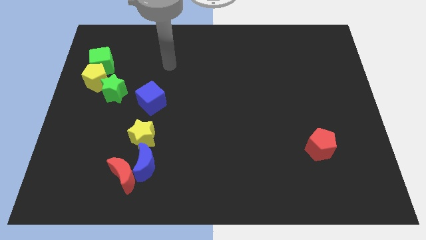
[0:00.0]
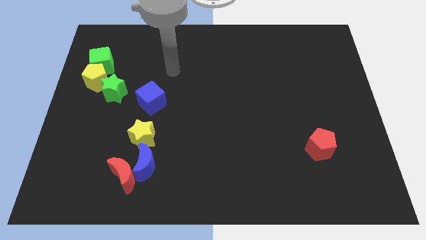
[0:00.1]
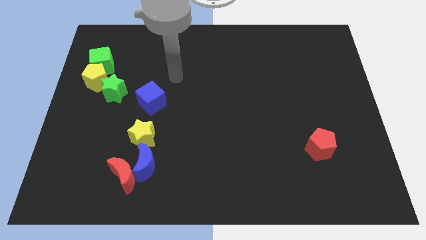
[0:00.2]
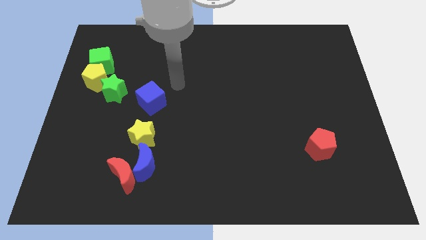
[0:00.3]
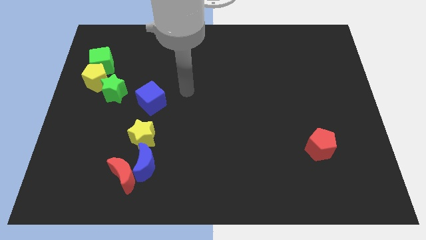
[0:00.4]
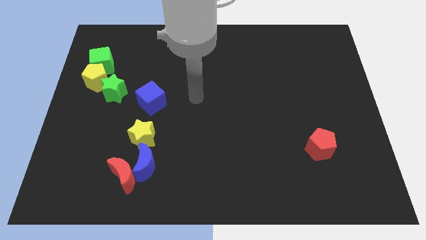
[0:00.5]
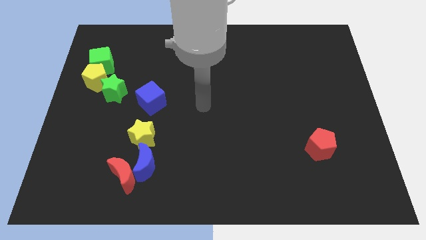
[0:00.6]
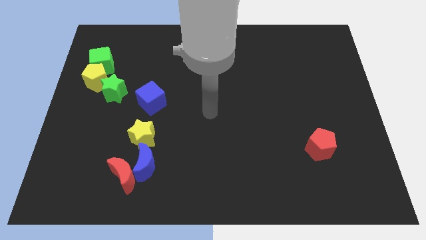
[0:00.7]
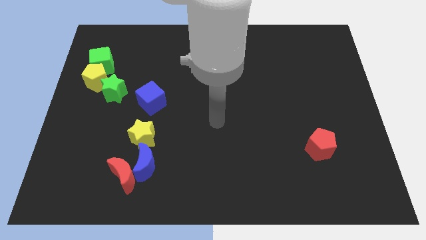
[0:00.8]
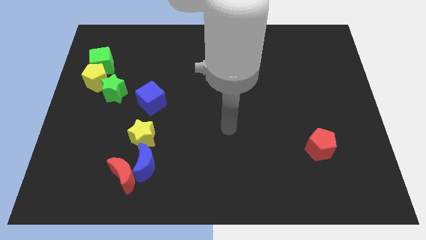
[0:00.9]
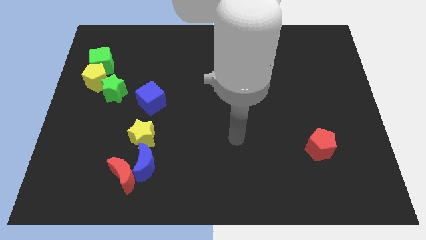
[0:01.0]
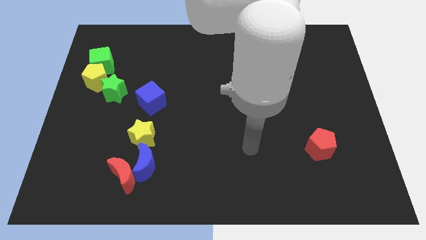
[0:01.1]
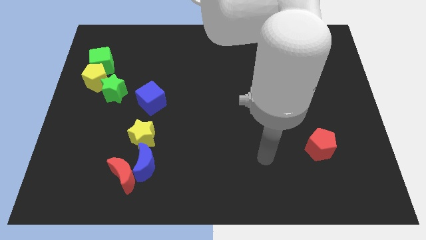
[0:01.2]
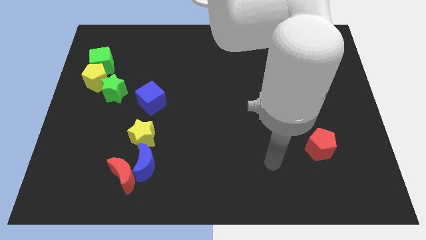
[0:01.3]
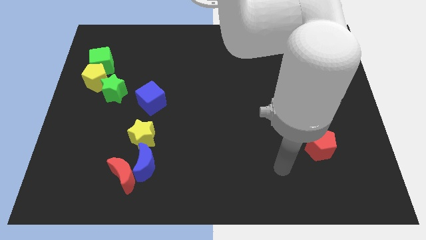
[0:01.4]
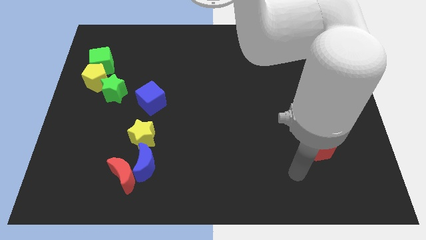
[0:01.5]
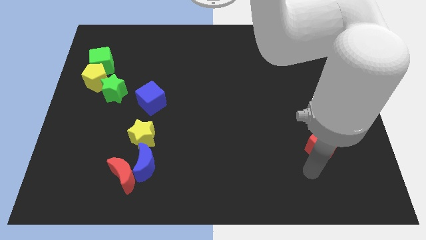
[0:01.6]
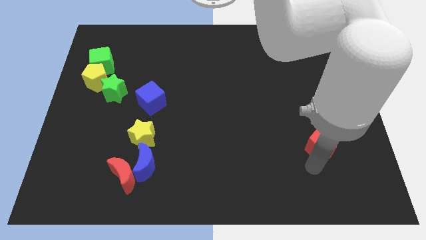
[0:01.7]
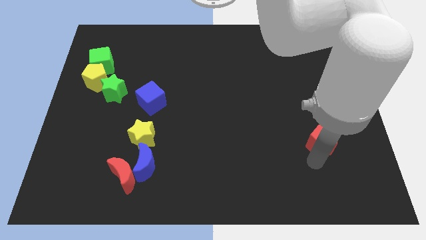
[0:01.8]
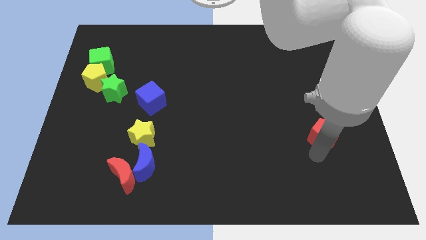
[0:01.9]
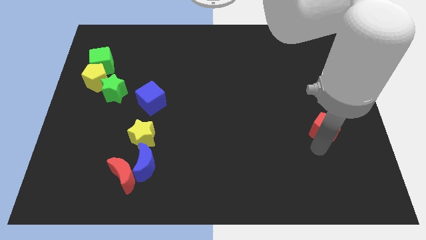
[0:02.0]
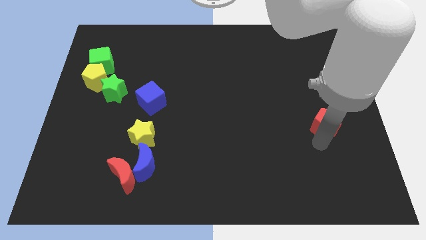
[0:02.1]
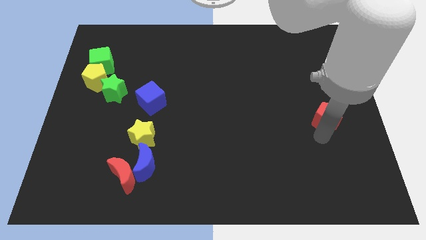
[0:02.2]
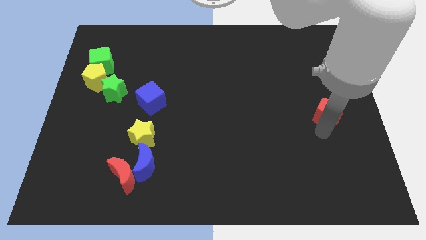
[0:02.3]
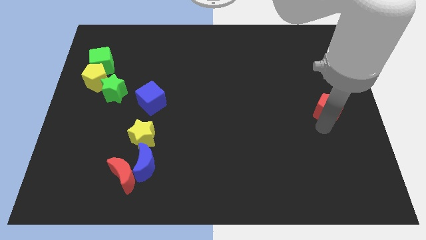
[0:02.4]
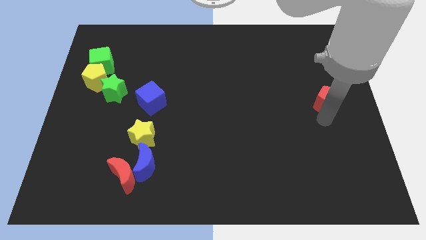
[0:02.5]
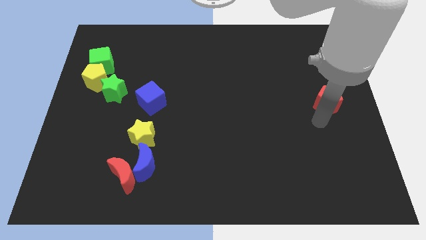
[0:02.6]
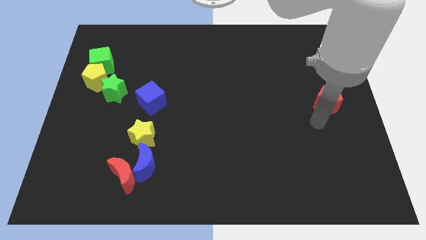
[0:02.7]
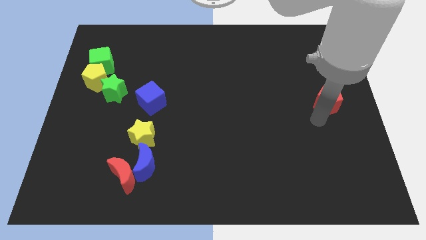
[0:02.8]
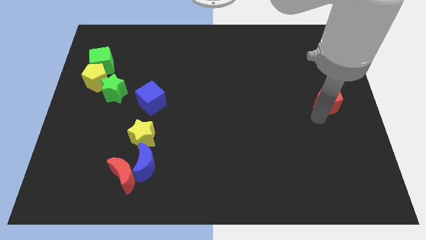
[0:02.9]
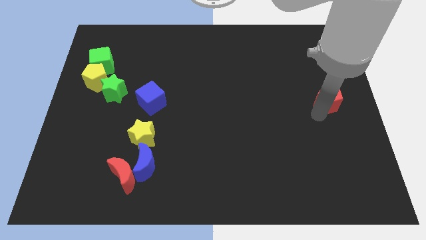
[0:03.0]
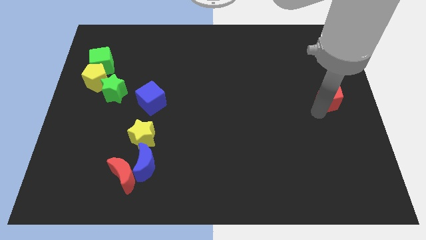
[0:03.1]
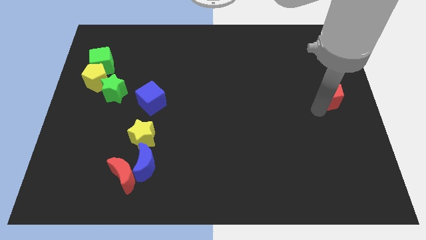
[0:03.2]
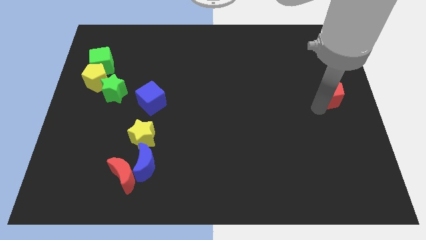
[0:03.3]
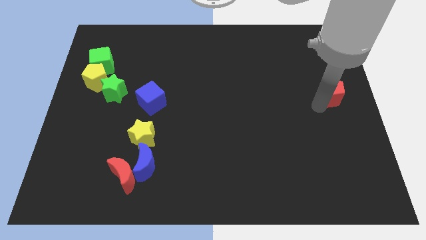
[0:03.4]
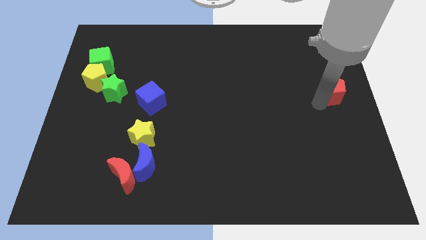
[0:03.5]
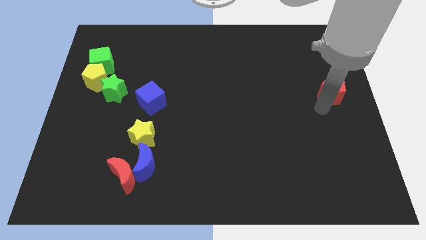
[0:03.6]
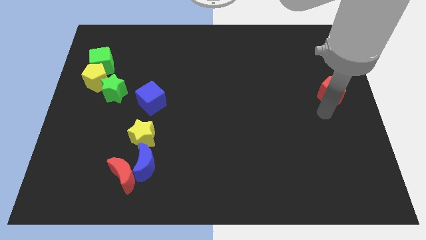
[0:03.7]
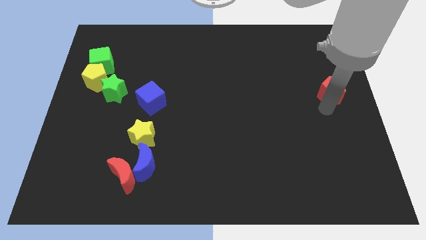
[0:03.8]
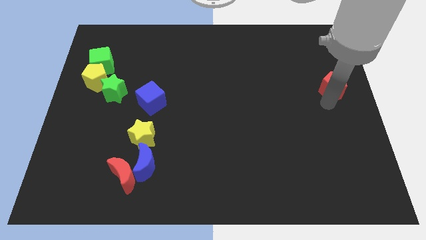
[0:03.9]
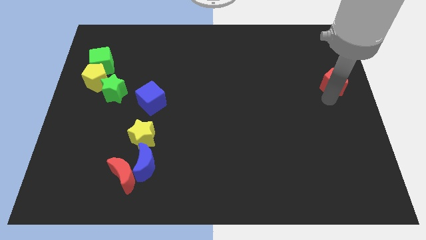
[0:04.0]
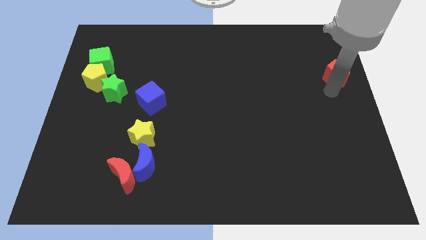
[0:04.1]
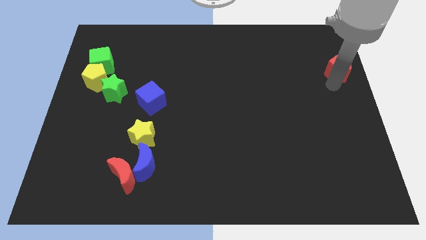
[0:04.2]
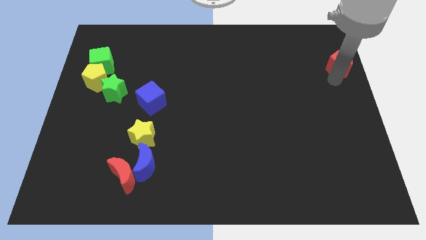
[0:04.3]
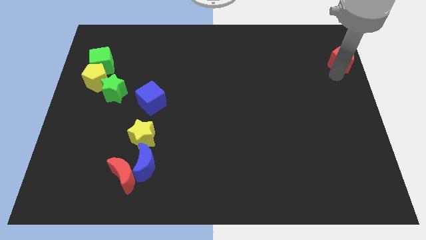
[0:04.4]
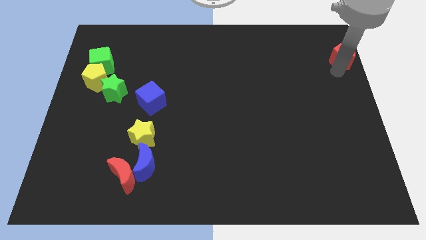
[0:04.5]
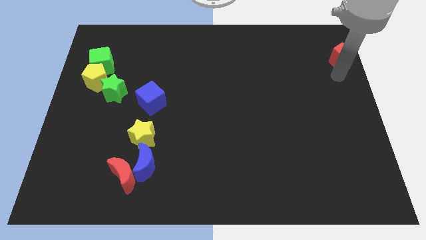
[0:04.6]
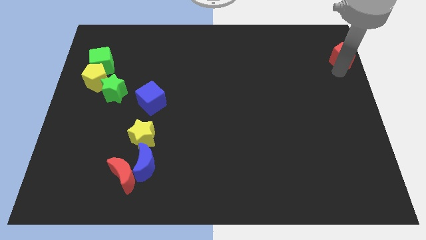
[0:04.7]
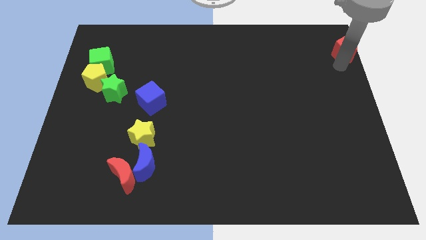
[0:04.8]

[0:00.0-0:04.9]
move the red pentagon to the top right of the board
